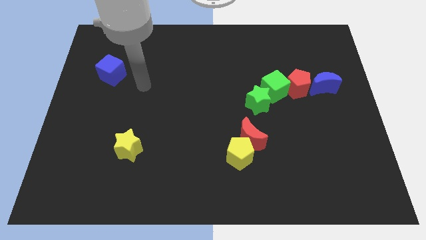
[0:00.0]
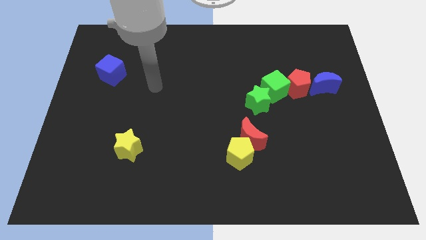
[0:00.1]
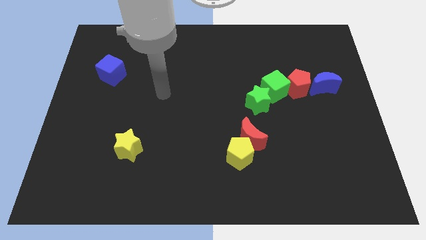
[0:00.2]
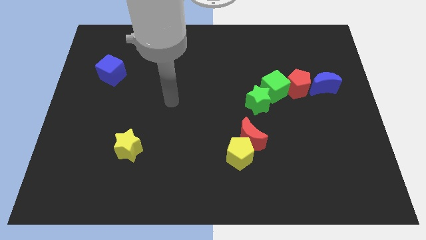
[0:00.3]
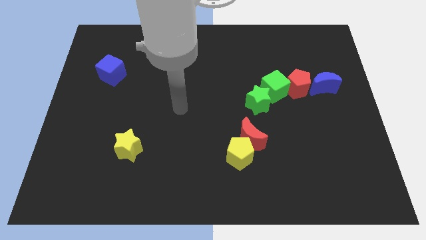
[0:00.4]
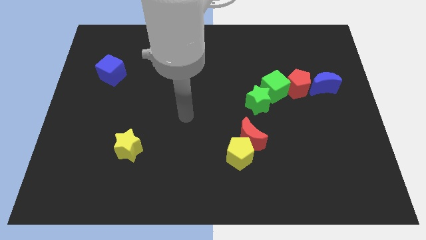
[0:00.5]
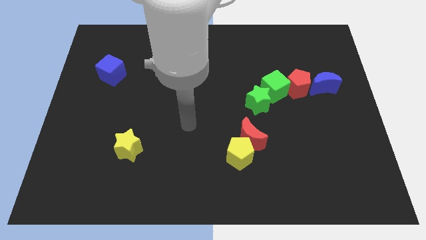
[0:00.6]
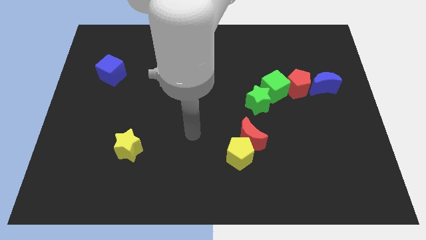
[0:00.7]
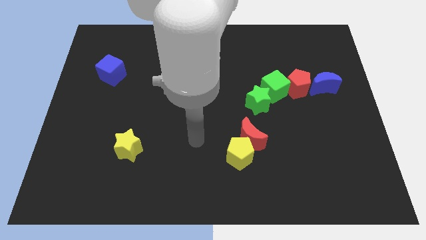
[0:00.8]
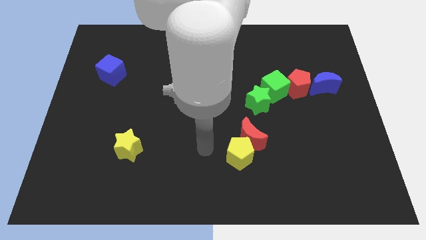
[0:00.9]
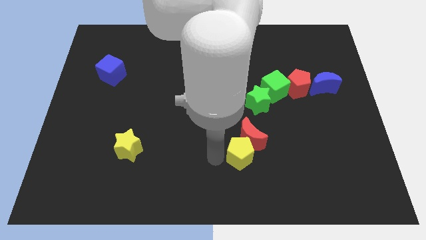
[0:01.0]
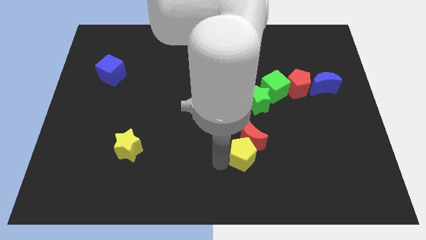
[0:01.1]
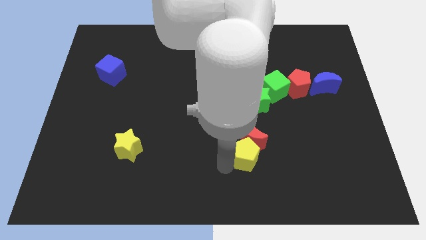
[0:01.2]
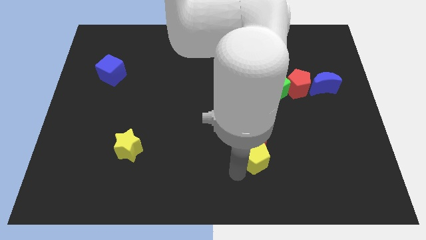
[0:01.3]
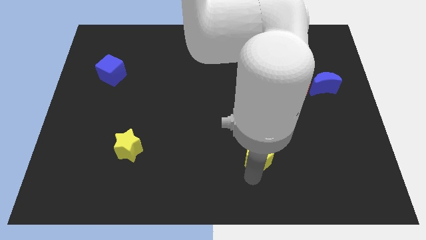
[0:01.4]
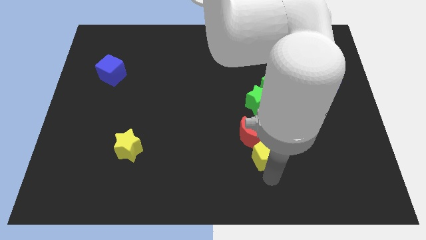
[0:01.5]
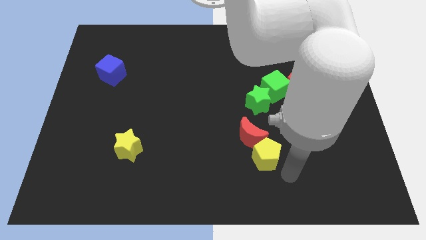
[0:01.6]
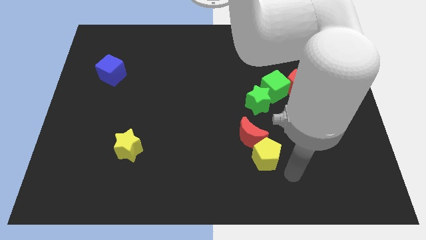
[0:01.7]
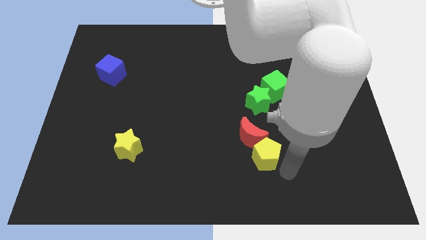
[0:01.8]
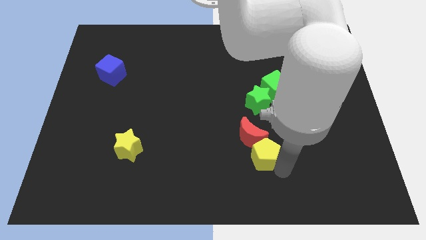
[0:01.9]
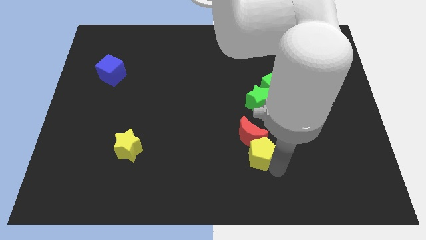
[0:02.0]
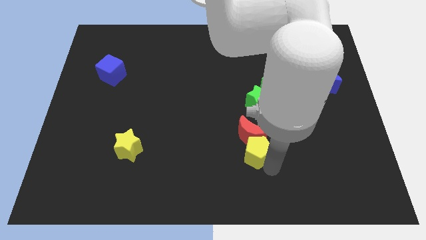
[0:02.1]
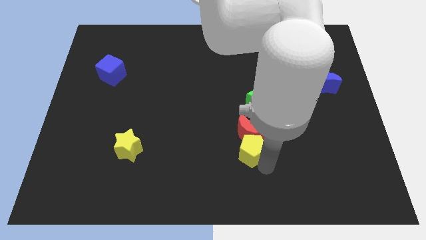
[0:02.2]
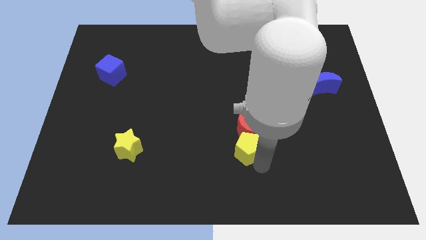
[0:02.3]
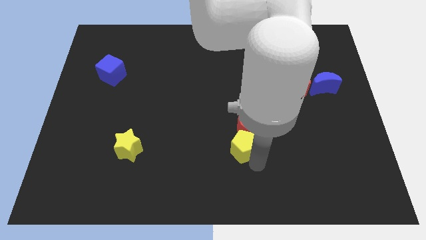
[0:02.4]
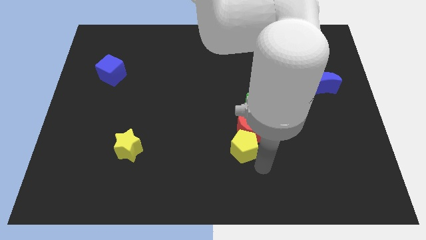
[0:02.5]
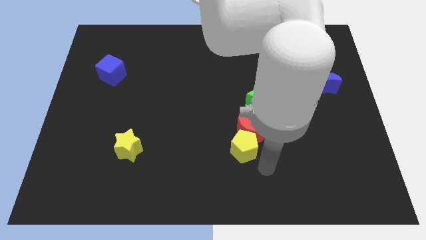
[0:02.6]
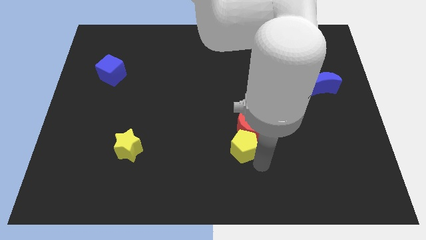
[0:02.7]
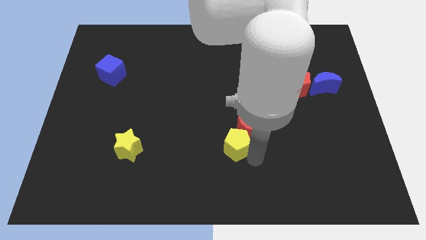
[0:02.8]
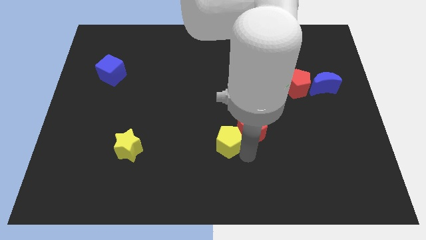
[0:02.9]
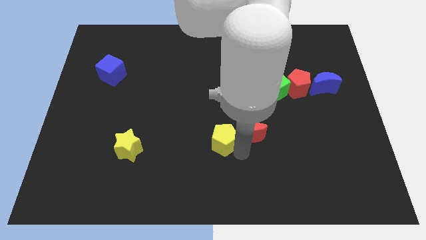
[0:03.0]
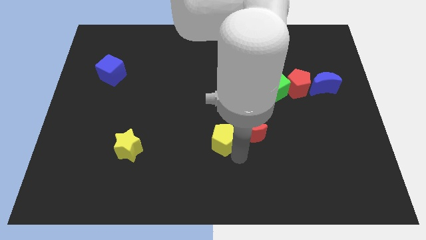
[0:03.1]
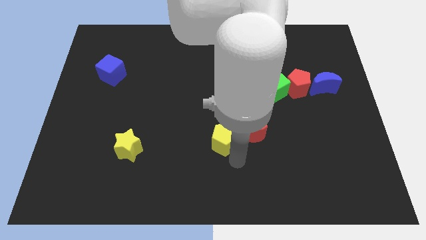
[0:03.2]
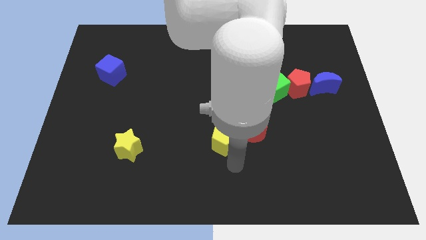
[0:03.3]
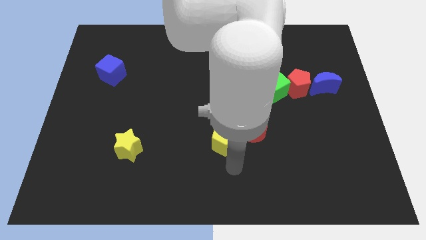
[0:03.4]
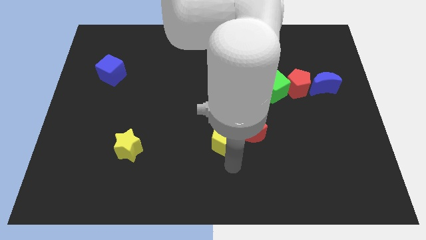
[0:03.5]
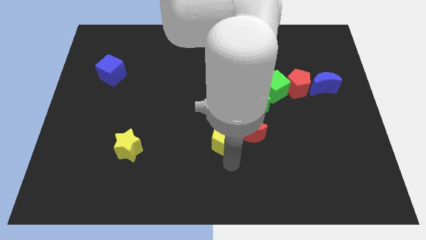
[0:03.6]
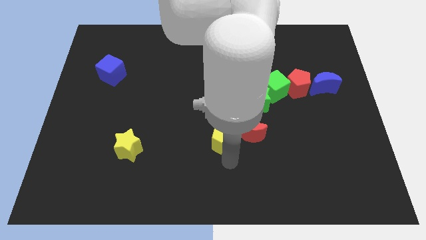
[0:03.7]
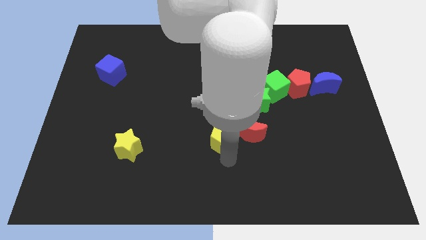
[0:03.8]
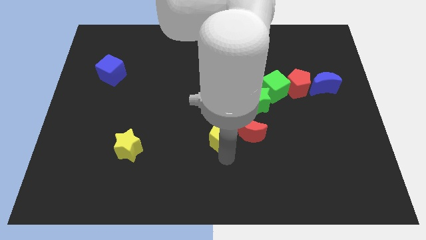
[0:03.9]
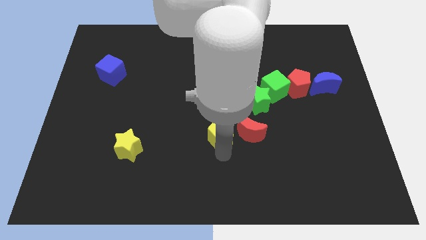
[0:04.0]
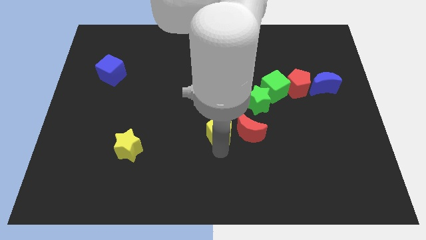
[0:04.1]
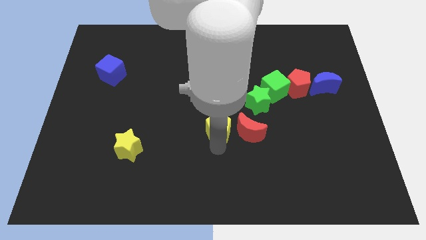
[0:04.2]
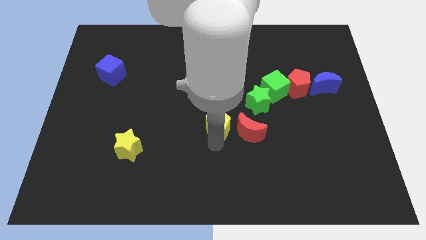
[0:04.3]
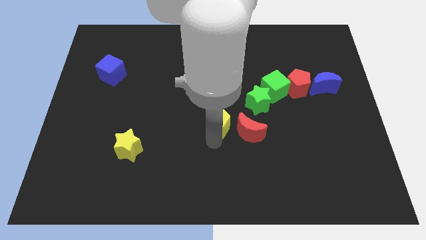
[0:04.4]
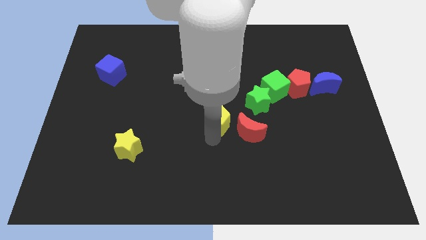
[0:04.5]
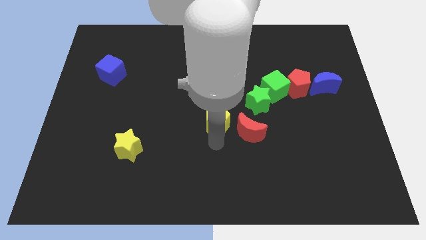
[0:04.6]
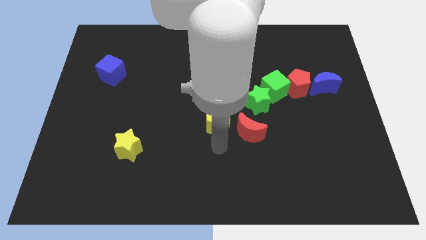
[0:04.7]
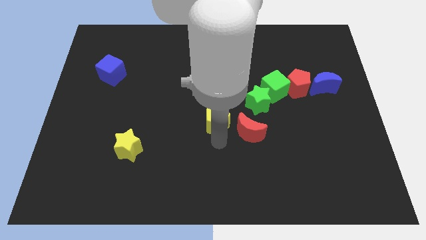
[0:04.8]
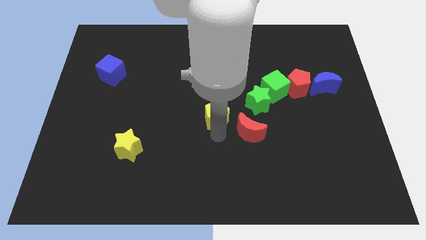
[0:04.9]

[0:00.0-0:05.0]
put the yellow pentagon to the left of the green star

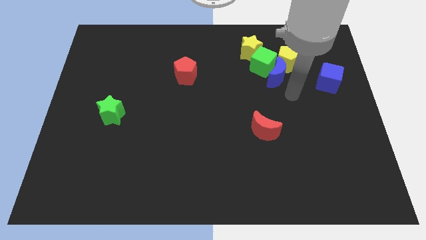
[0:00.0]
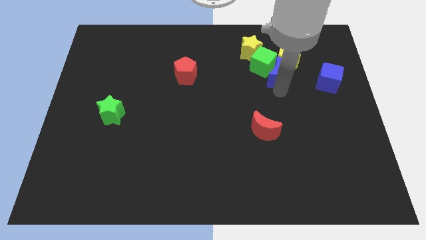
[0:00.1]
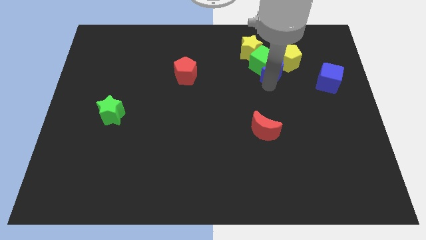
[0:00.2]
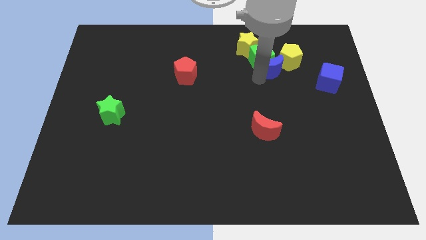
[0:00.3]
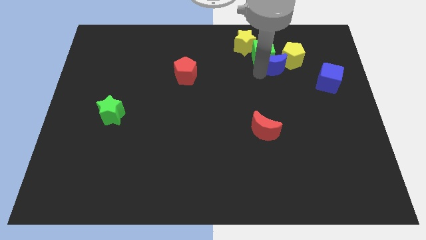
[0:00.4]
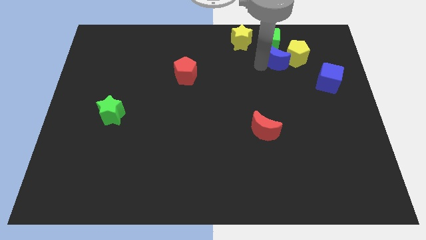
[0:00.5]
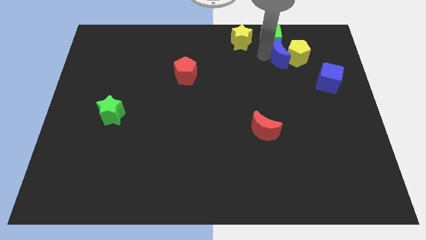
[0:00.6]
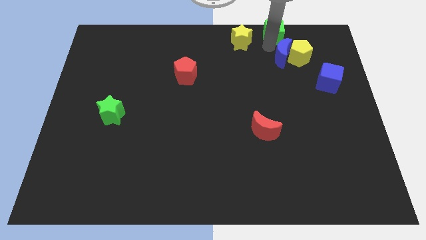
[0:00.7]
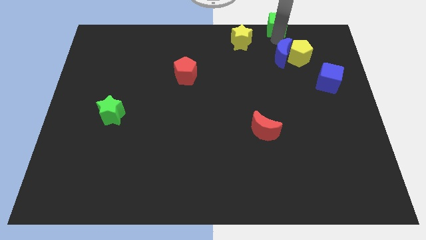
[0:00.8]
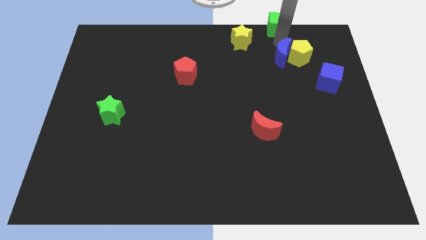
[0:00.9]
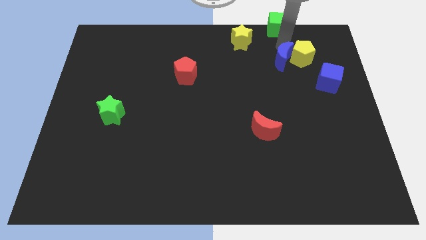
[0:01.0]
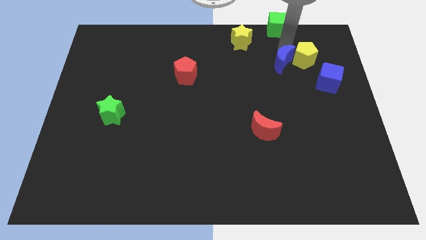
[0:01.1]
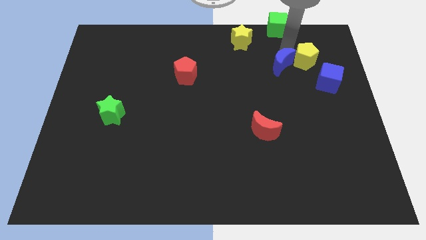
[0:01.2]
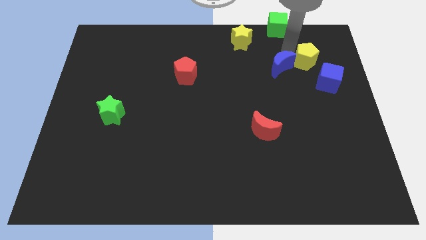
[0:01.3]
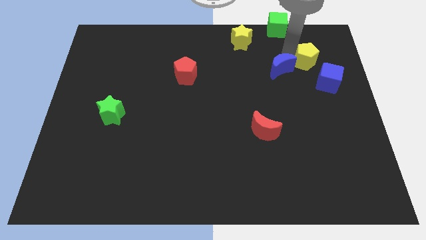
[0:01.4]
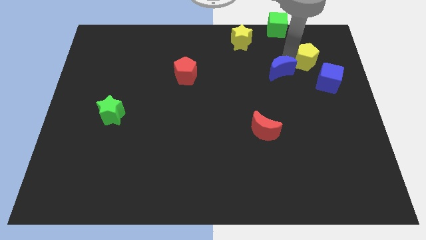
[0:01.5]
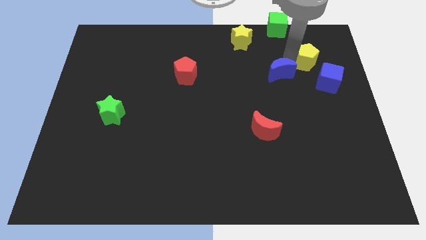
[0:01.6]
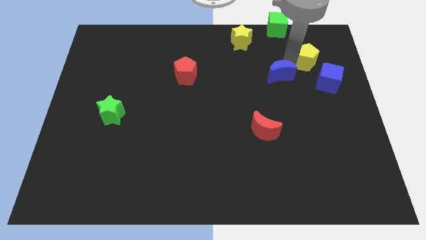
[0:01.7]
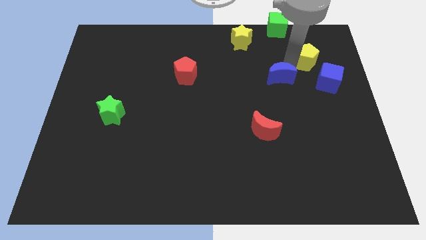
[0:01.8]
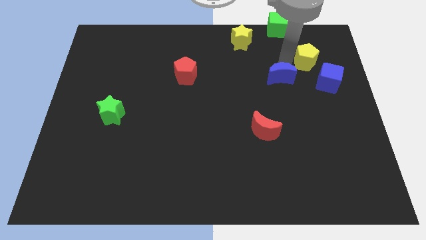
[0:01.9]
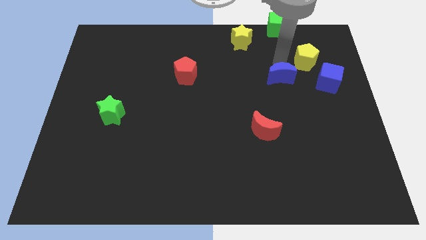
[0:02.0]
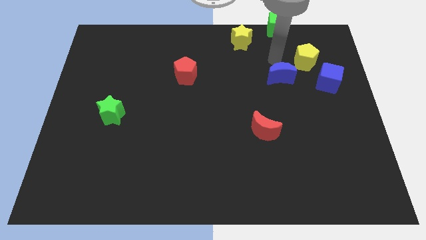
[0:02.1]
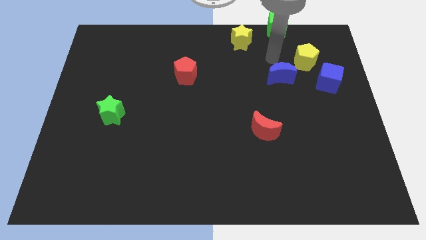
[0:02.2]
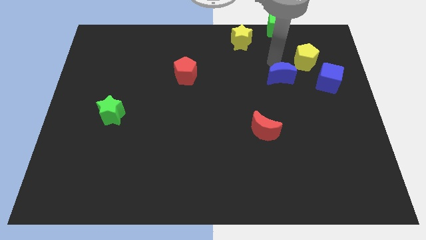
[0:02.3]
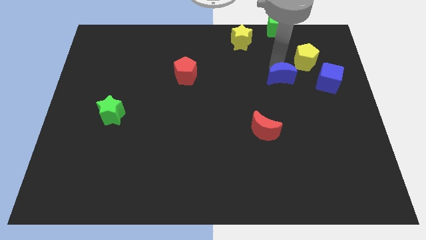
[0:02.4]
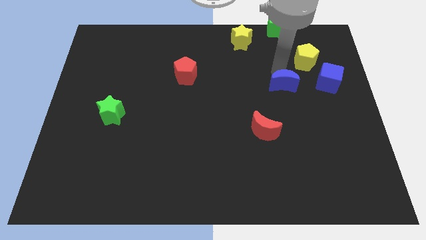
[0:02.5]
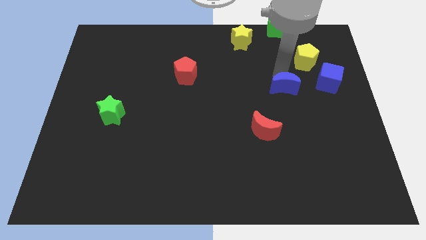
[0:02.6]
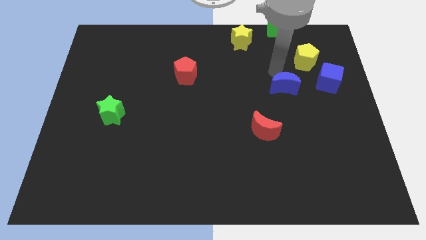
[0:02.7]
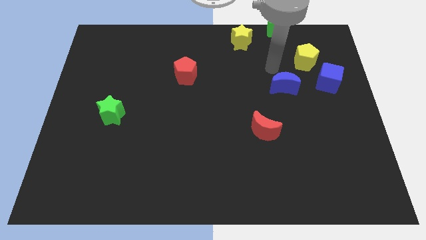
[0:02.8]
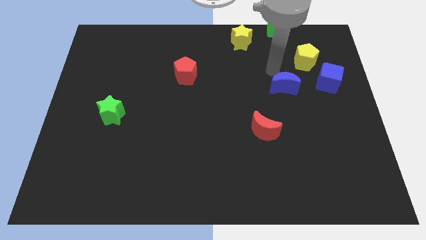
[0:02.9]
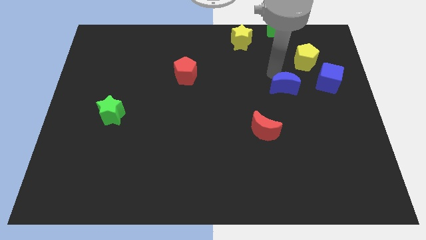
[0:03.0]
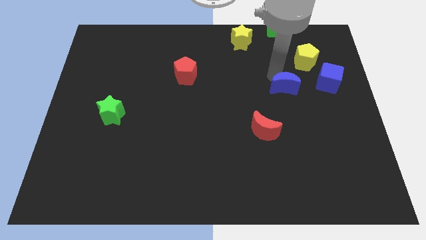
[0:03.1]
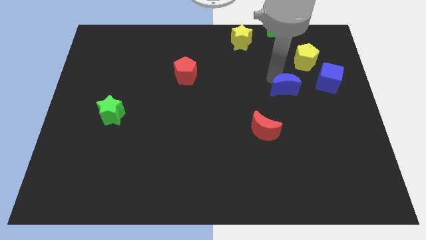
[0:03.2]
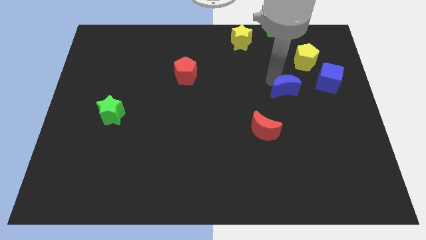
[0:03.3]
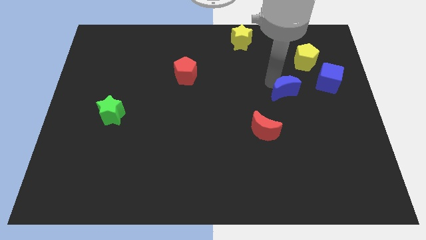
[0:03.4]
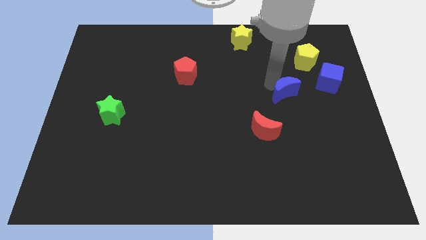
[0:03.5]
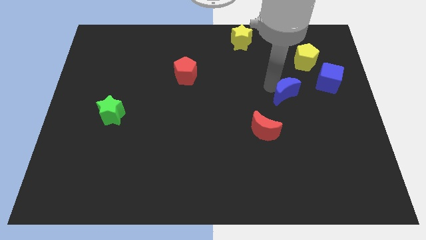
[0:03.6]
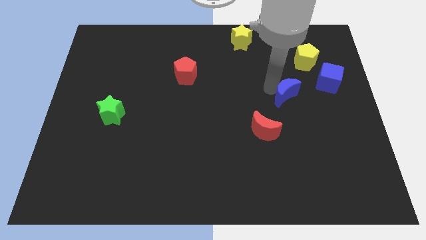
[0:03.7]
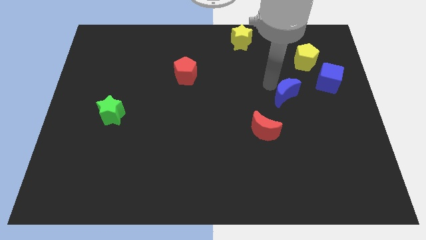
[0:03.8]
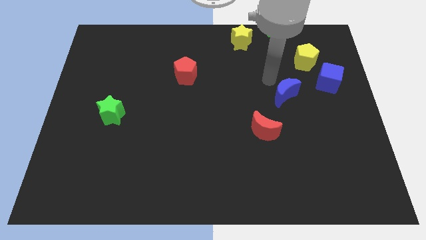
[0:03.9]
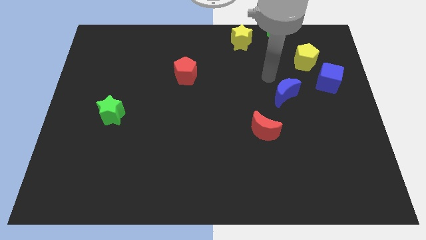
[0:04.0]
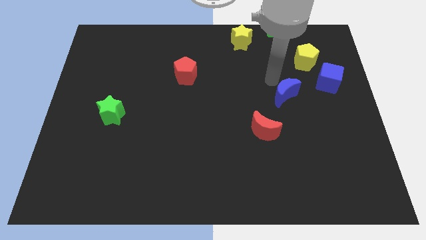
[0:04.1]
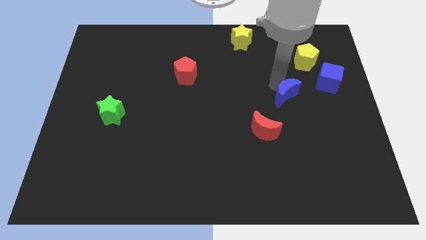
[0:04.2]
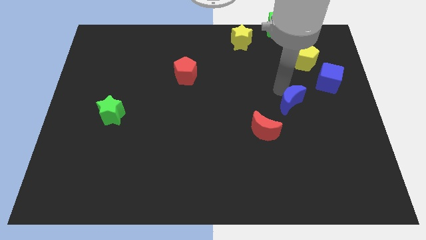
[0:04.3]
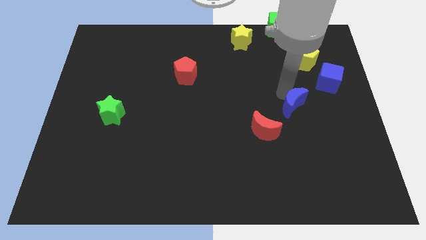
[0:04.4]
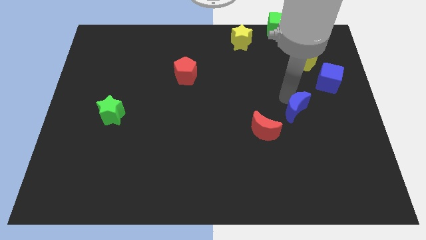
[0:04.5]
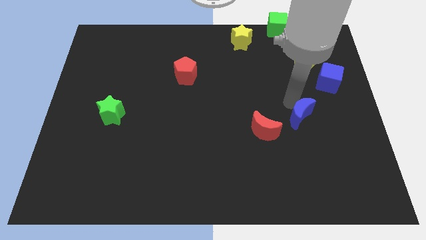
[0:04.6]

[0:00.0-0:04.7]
move the blue moon to the right side of the red moon
